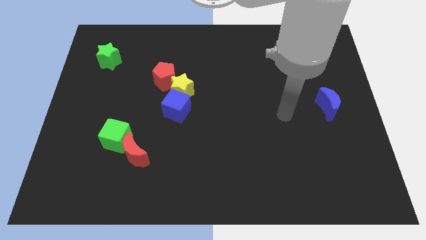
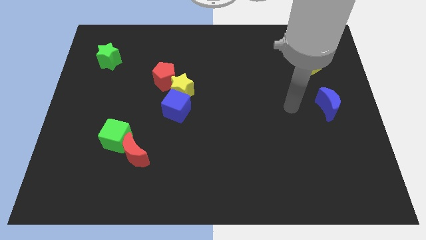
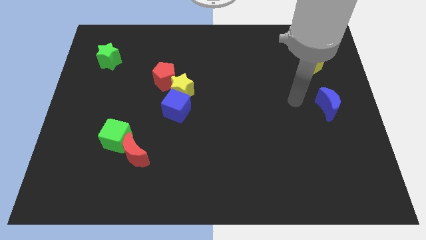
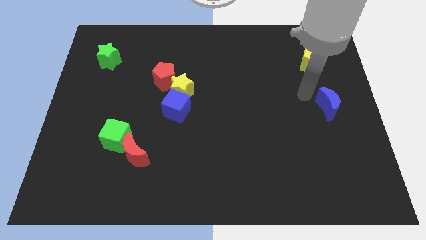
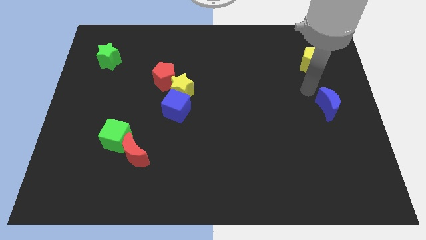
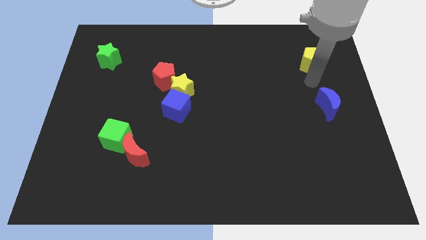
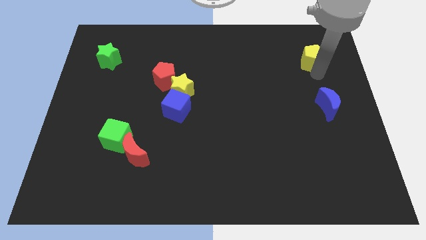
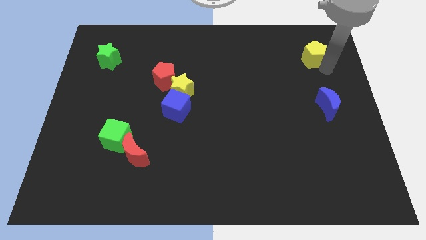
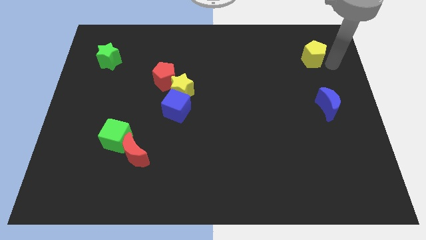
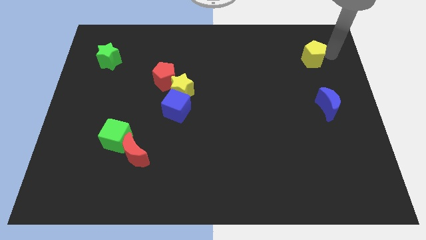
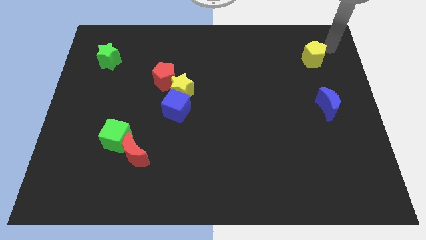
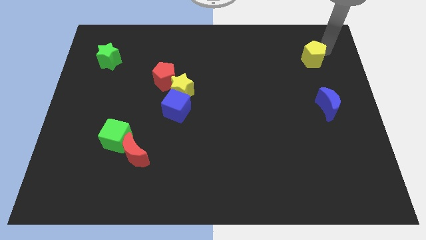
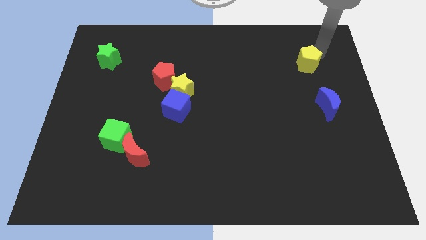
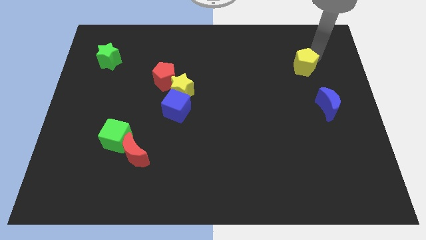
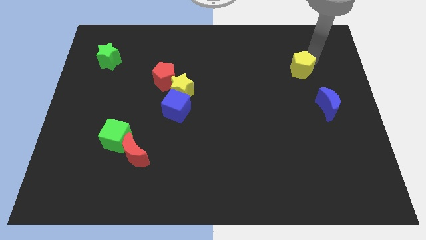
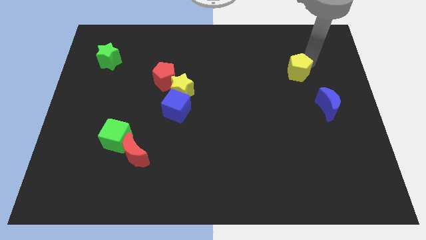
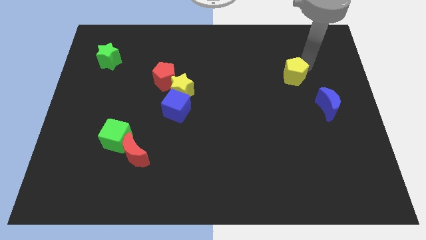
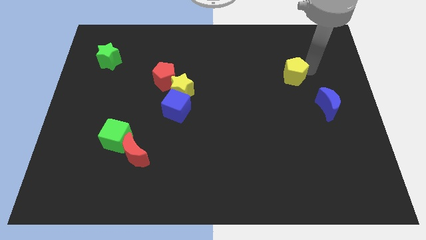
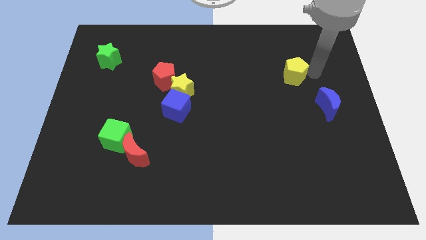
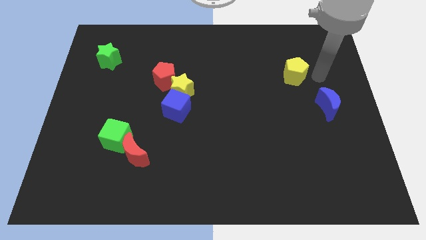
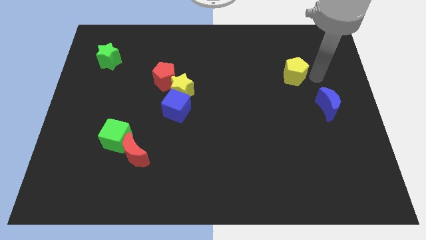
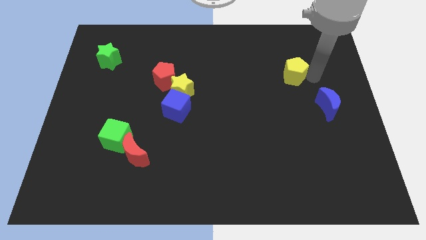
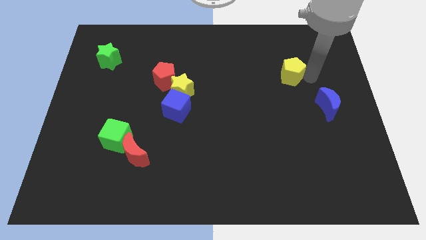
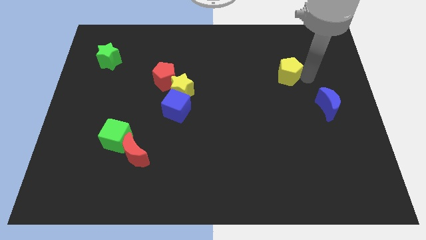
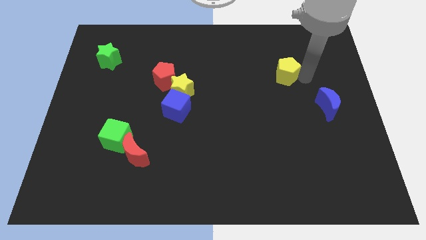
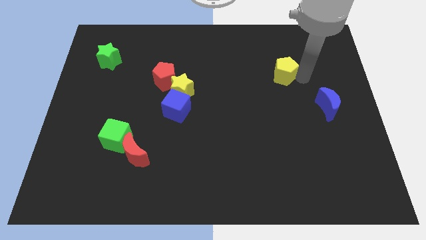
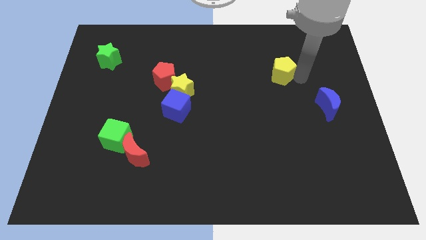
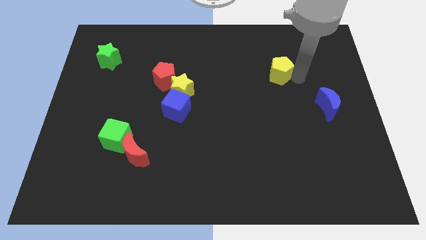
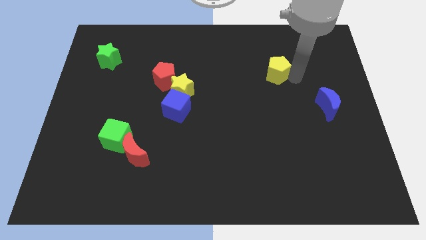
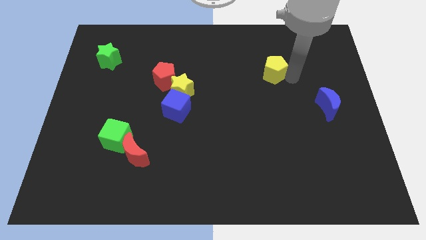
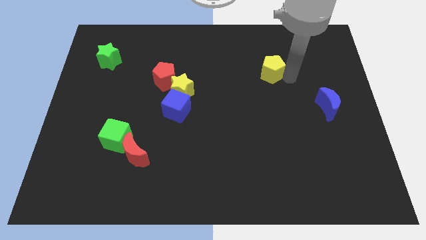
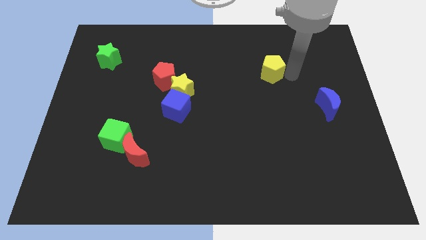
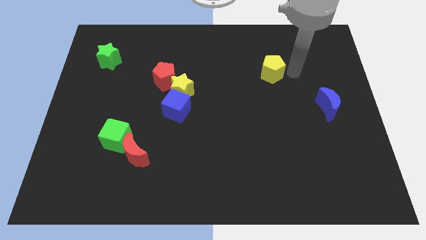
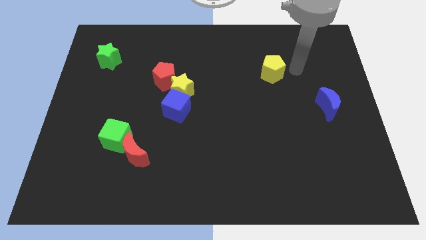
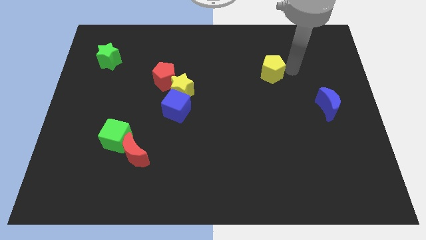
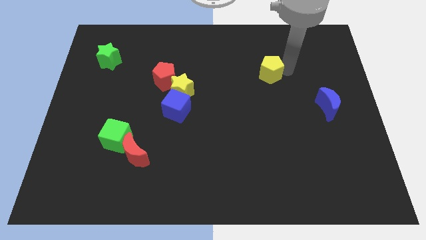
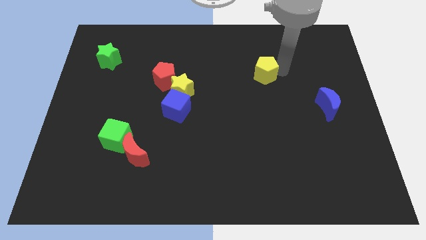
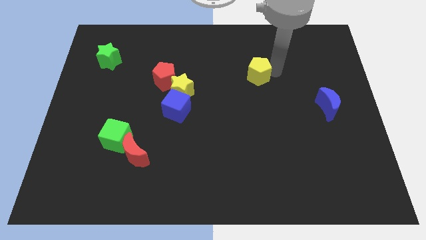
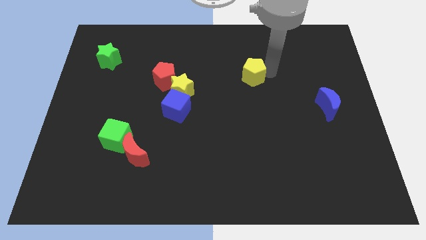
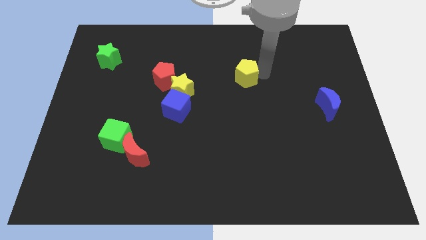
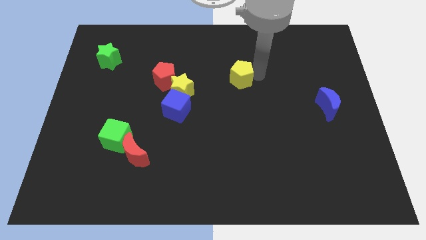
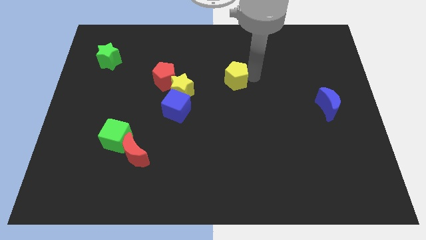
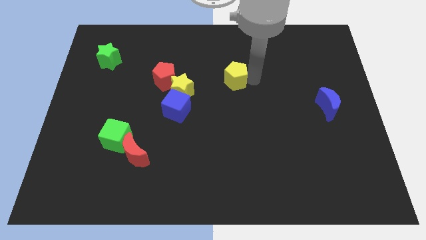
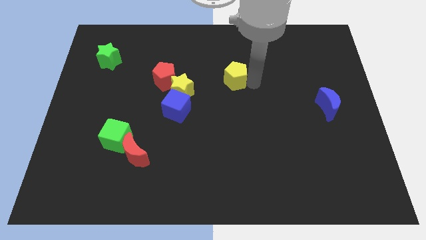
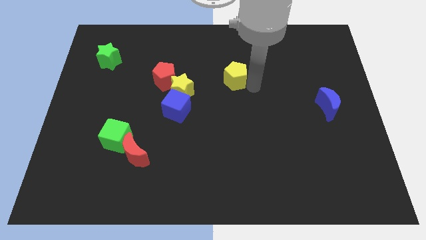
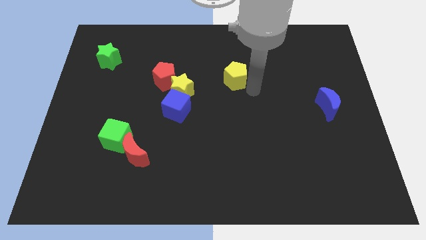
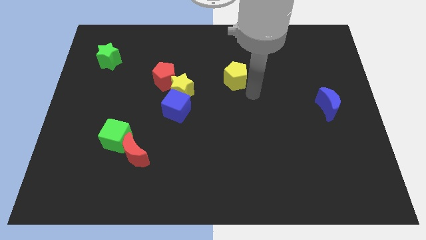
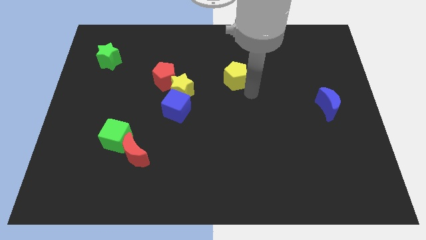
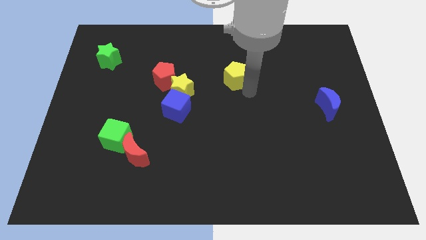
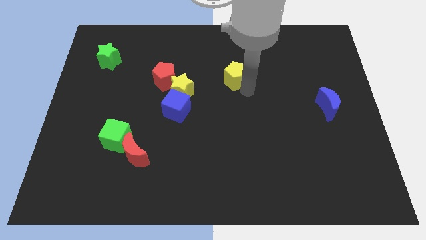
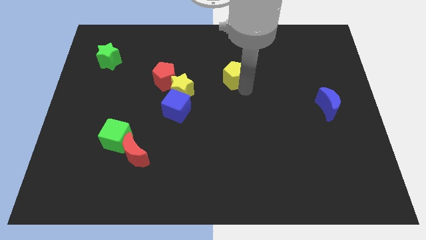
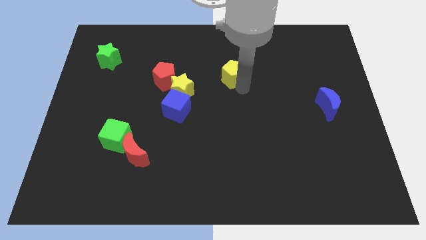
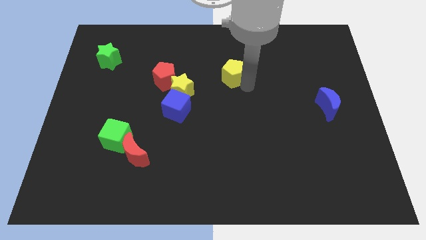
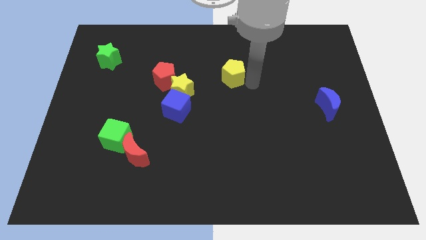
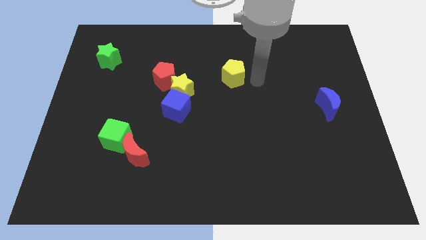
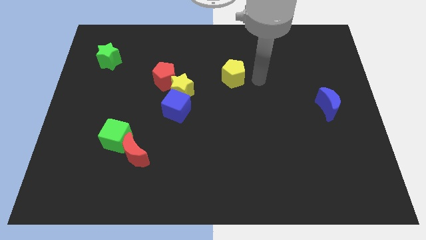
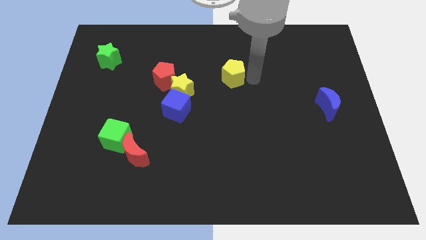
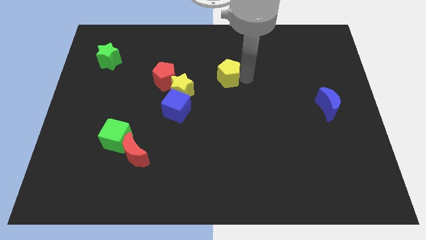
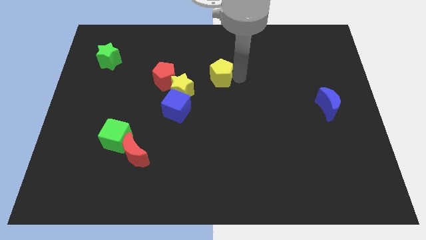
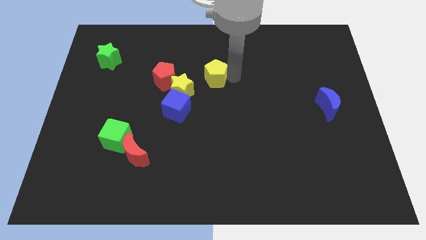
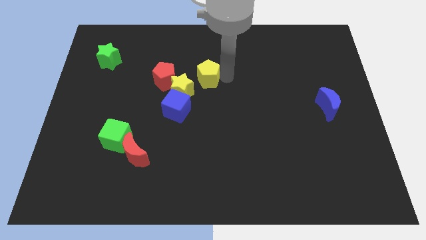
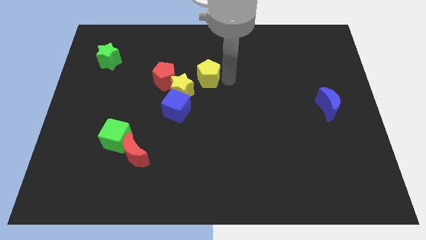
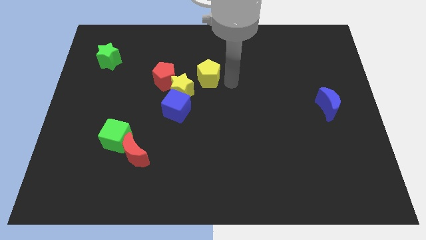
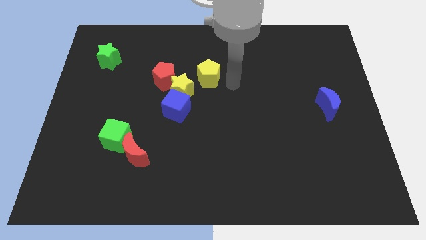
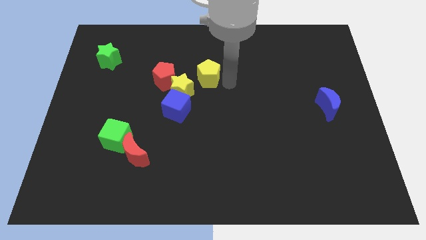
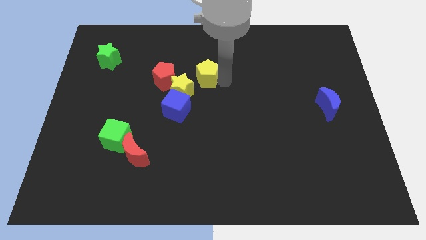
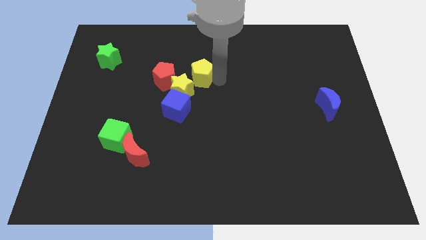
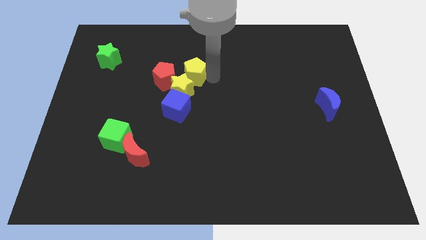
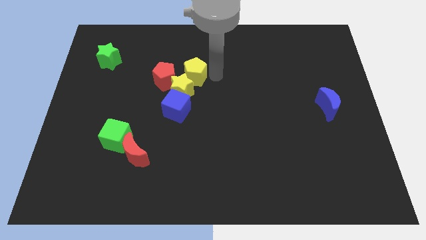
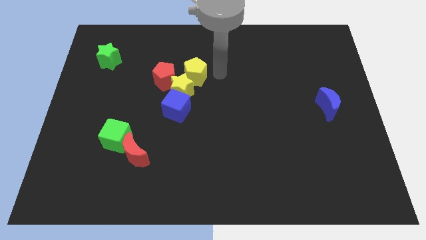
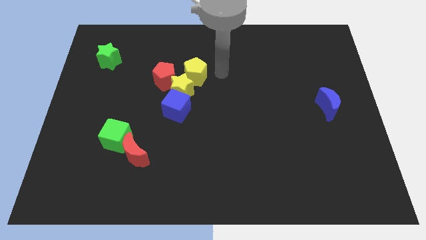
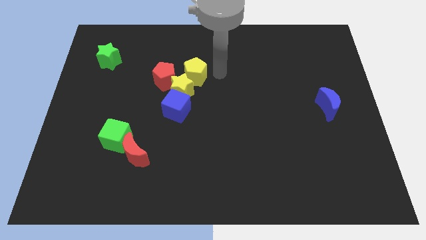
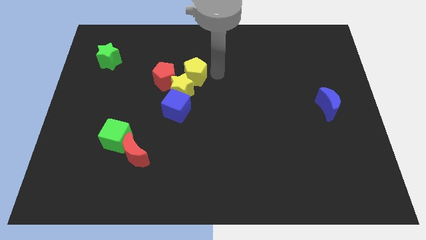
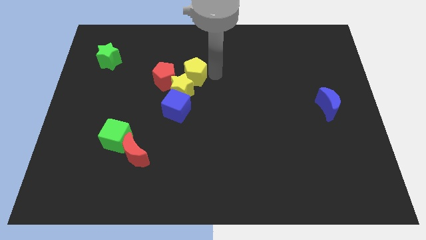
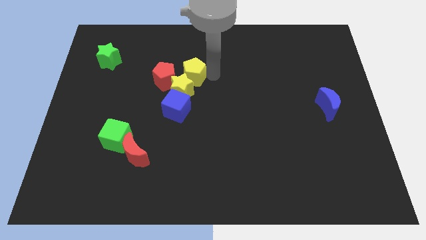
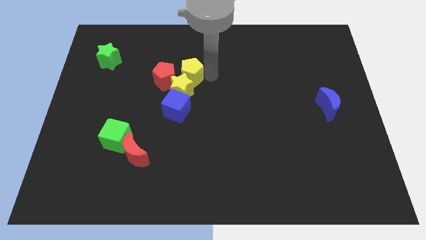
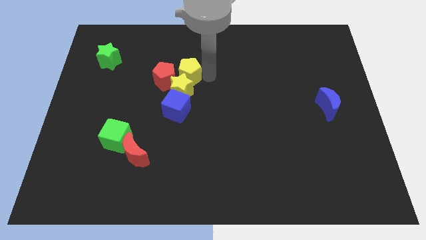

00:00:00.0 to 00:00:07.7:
move the yellow pentagon to the red pentagon

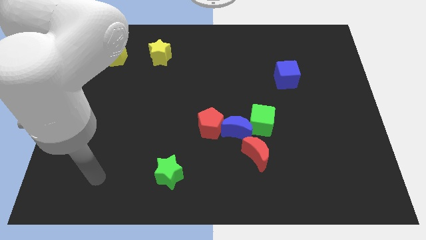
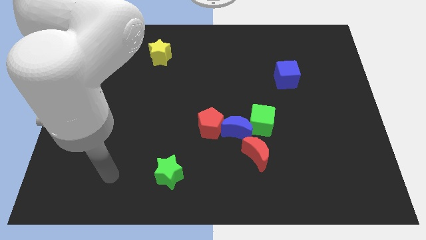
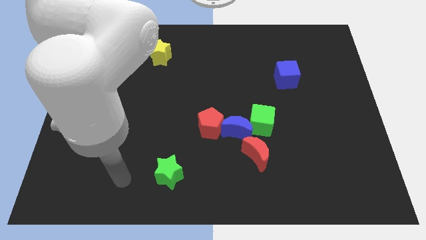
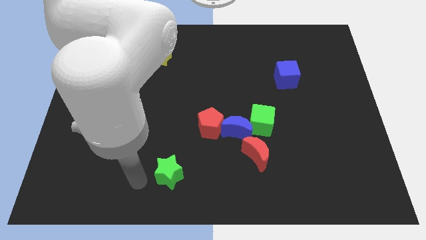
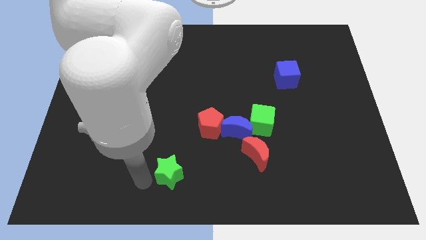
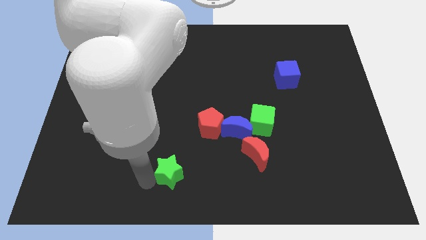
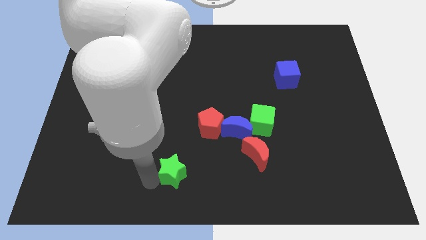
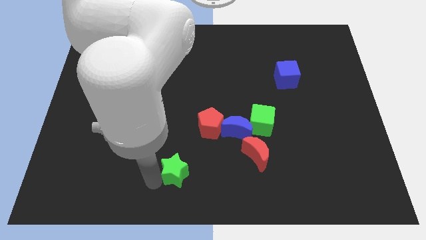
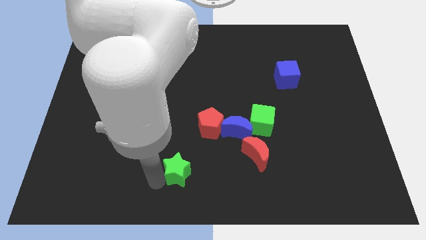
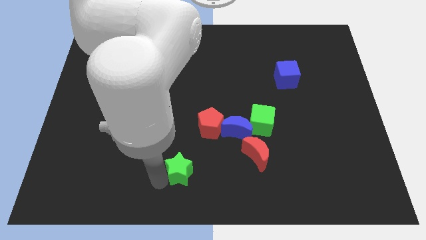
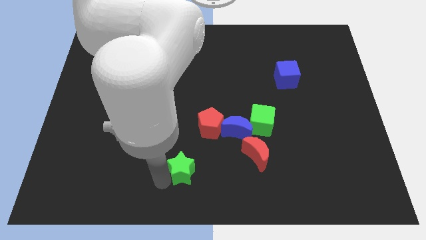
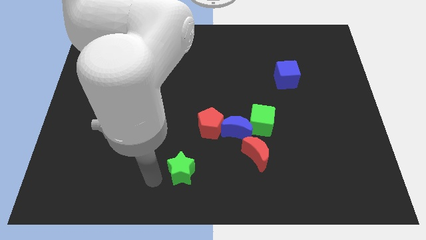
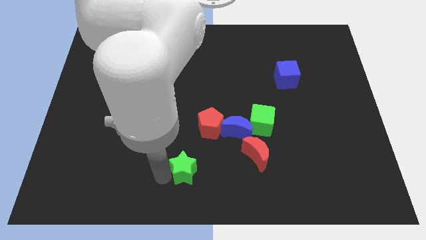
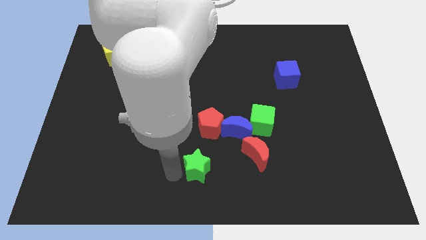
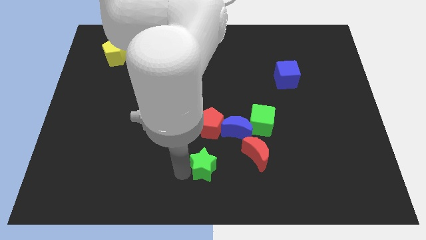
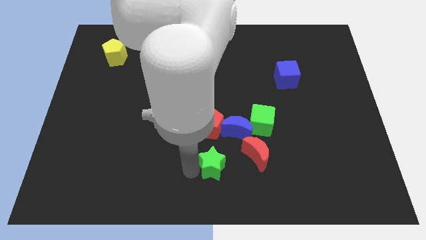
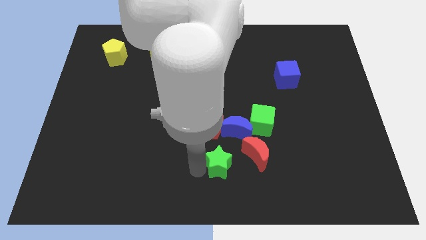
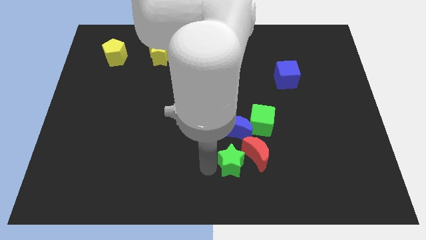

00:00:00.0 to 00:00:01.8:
put the green star to the red moon
